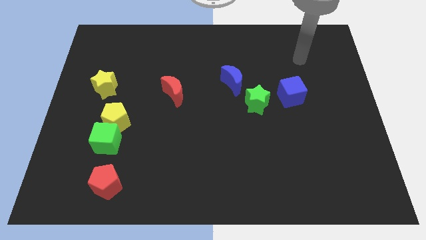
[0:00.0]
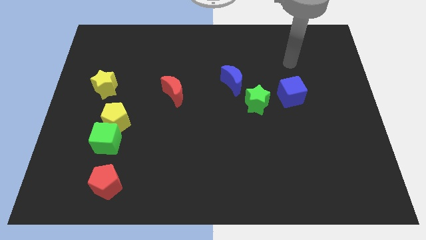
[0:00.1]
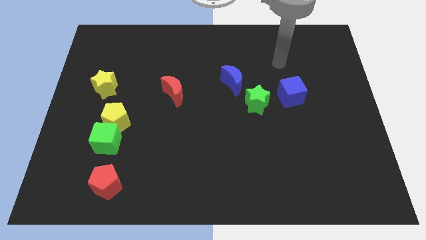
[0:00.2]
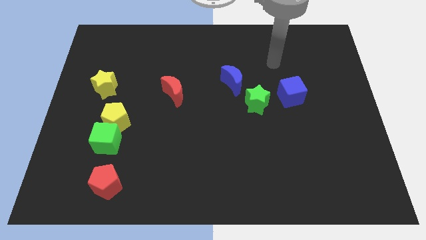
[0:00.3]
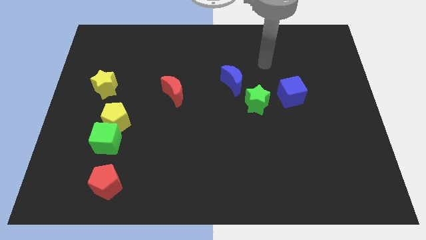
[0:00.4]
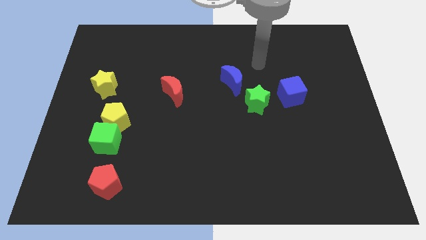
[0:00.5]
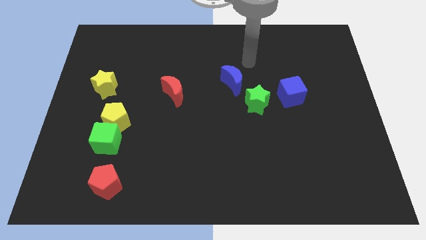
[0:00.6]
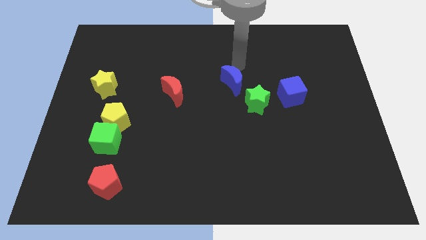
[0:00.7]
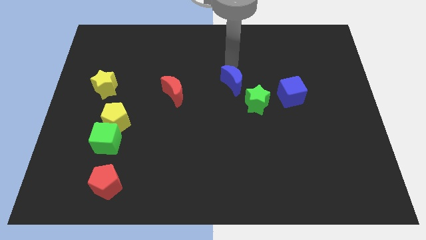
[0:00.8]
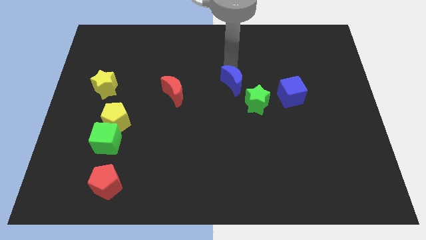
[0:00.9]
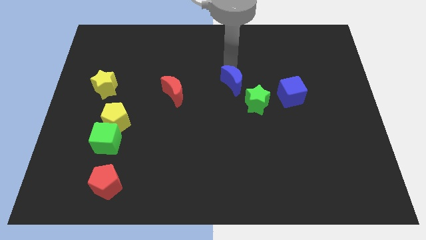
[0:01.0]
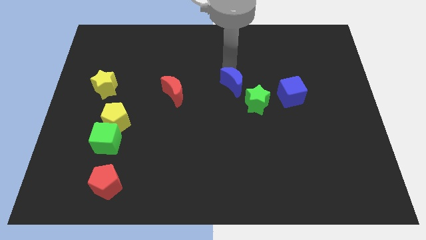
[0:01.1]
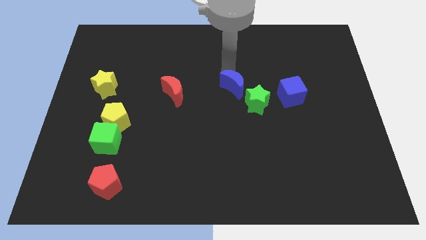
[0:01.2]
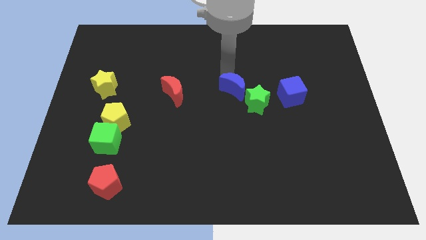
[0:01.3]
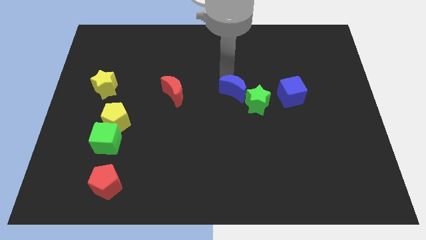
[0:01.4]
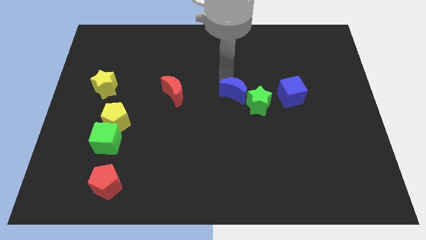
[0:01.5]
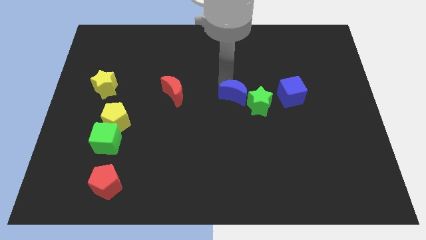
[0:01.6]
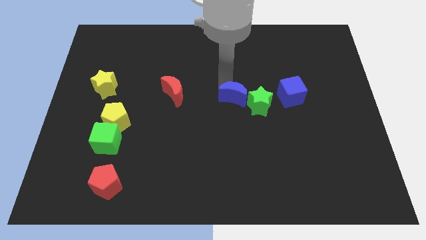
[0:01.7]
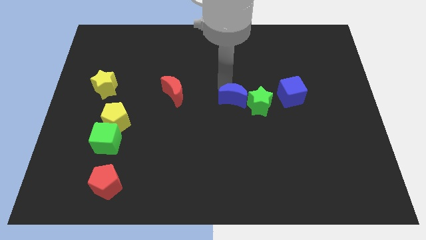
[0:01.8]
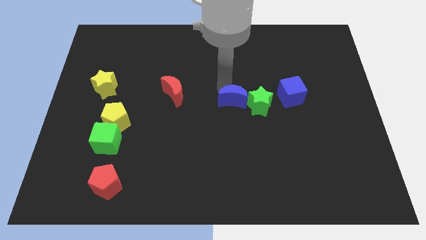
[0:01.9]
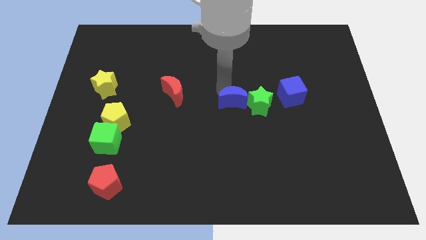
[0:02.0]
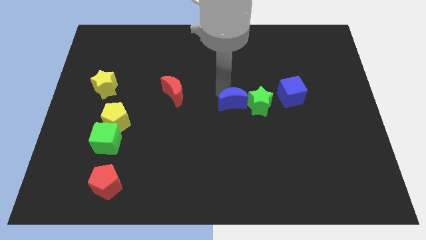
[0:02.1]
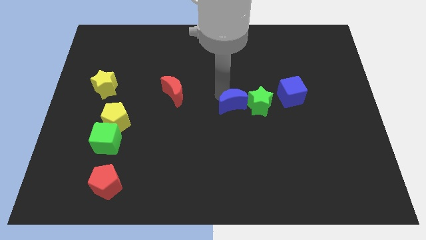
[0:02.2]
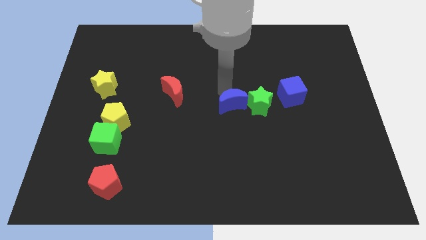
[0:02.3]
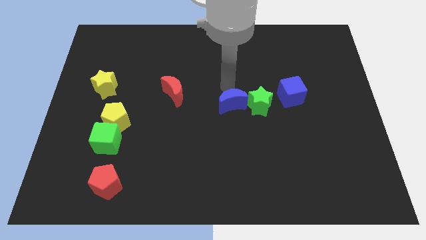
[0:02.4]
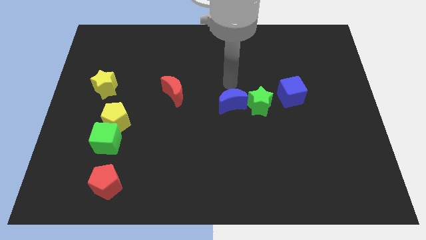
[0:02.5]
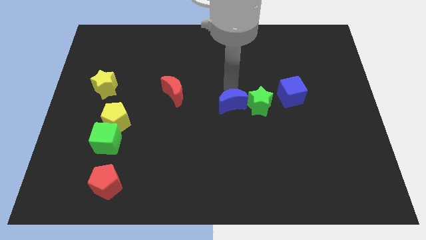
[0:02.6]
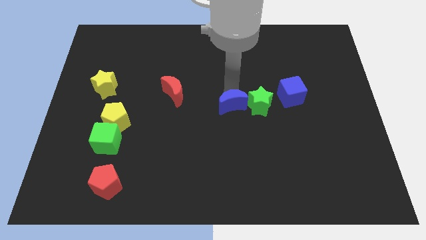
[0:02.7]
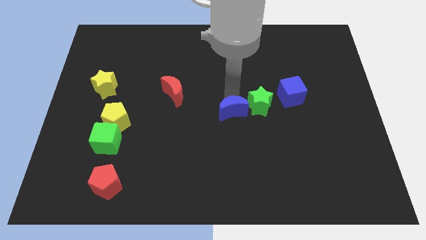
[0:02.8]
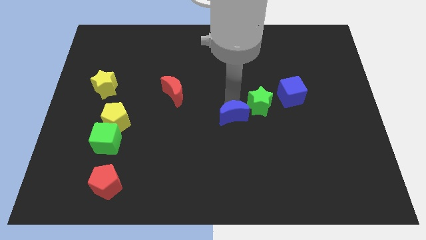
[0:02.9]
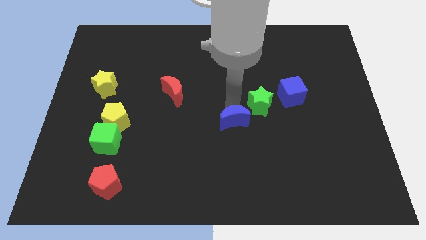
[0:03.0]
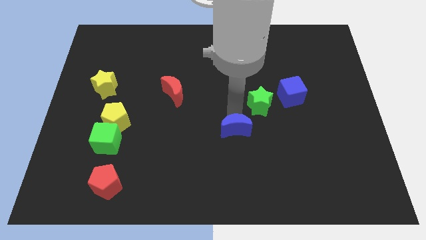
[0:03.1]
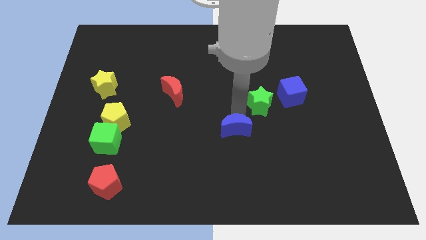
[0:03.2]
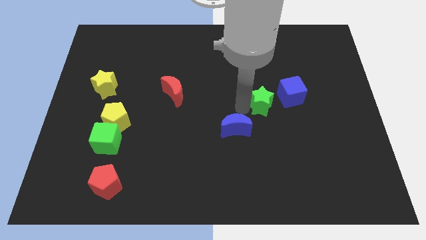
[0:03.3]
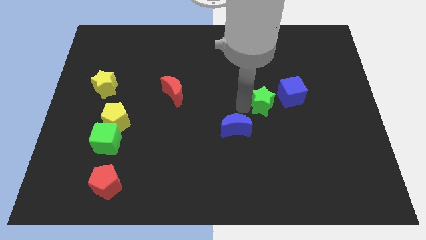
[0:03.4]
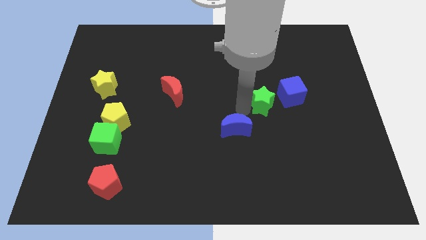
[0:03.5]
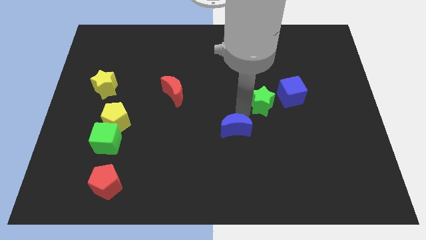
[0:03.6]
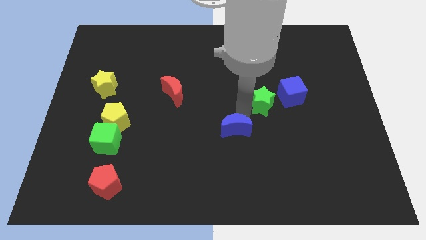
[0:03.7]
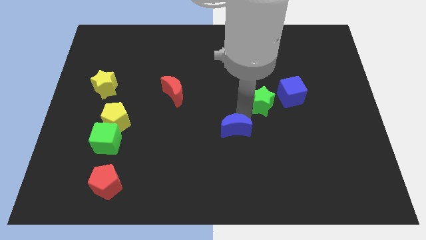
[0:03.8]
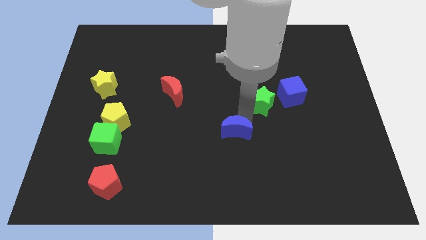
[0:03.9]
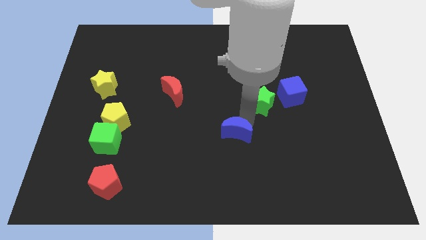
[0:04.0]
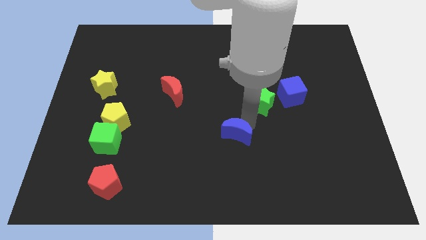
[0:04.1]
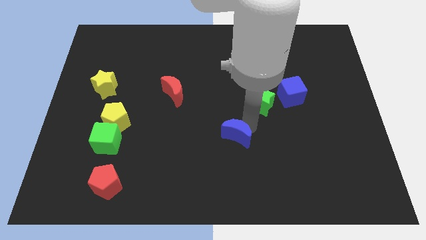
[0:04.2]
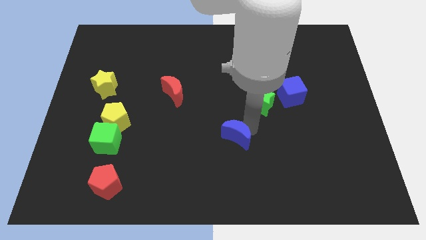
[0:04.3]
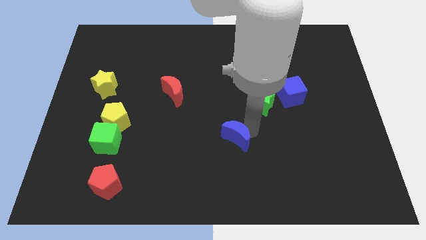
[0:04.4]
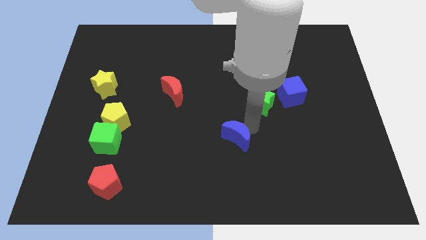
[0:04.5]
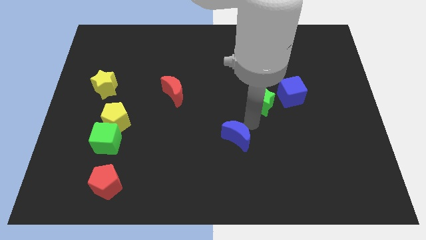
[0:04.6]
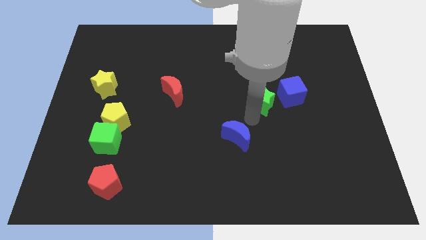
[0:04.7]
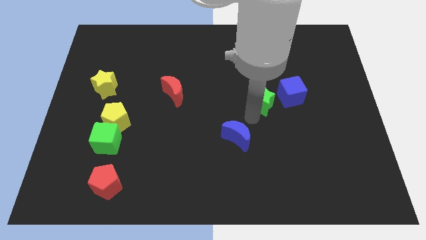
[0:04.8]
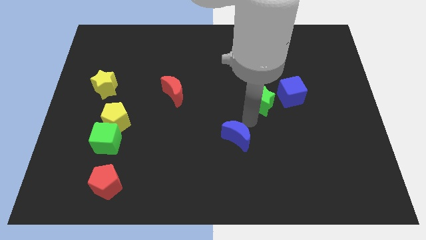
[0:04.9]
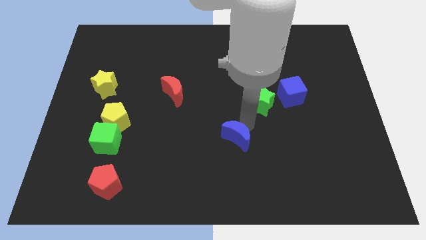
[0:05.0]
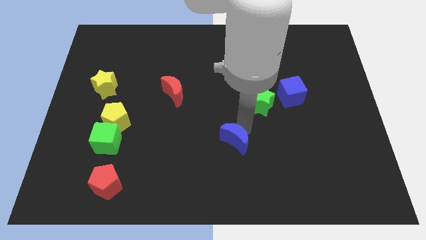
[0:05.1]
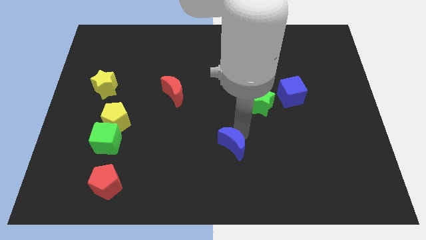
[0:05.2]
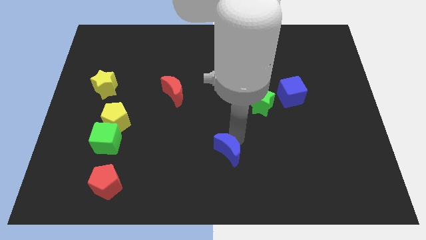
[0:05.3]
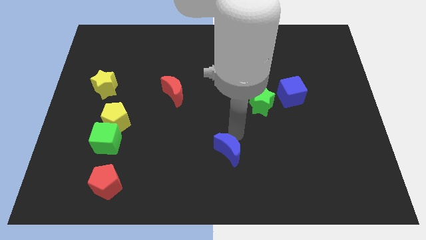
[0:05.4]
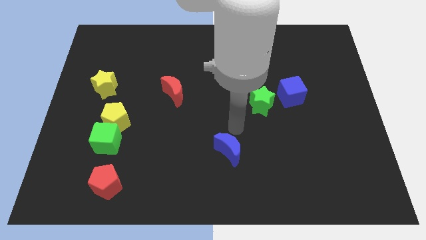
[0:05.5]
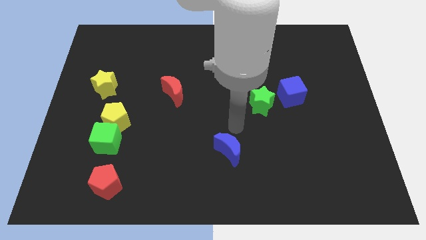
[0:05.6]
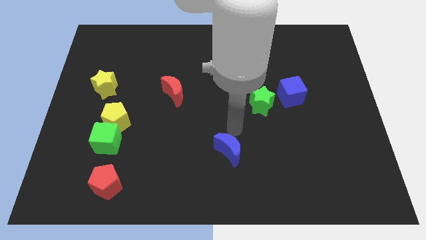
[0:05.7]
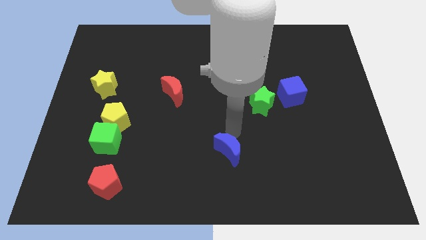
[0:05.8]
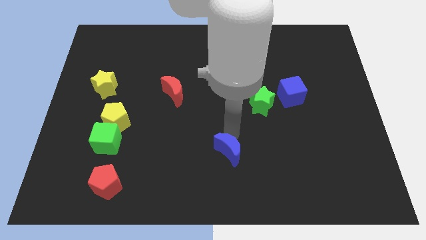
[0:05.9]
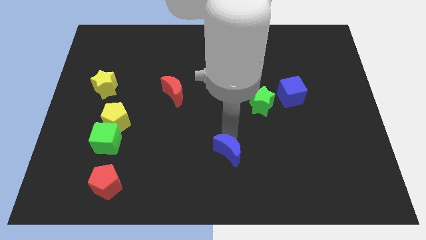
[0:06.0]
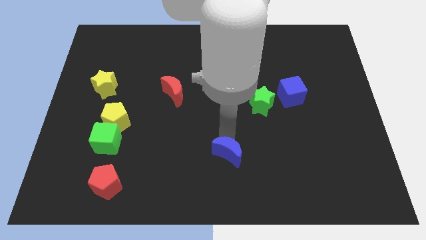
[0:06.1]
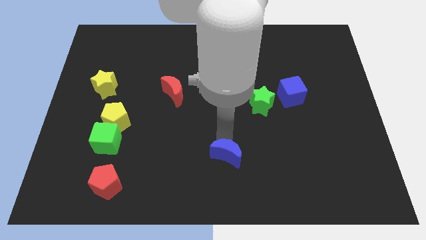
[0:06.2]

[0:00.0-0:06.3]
put the blue moon to the bottom side

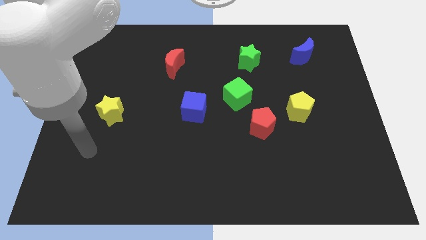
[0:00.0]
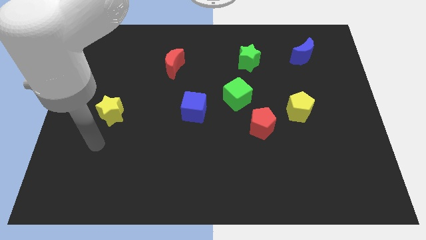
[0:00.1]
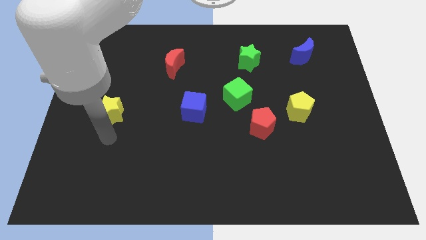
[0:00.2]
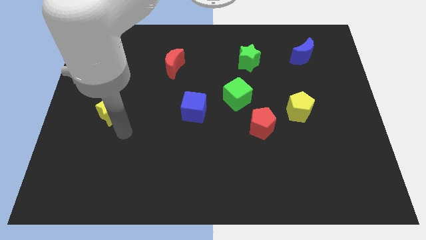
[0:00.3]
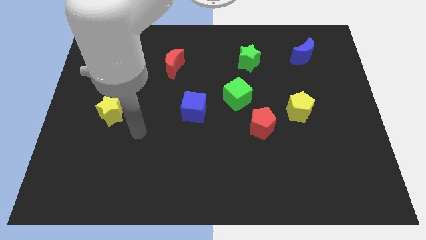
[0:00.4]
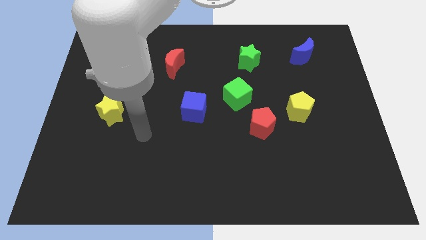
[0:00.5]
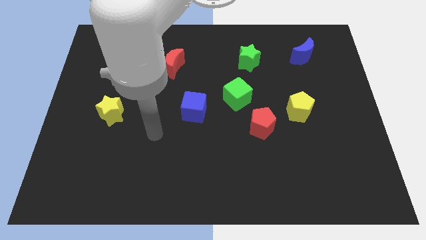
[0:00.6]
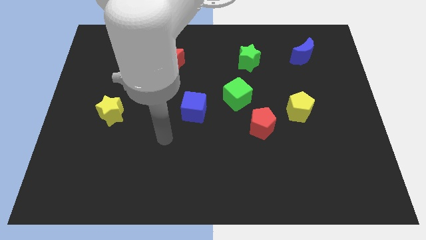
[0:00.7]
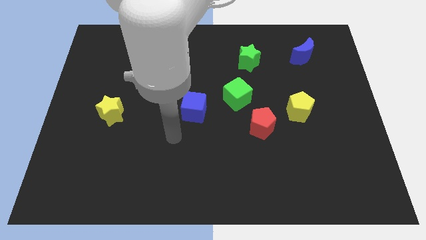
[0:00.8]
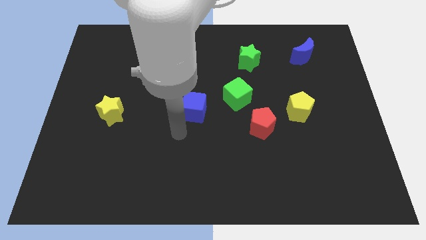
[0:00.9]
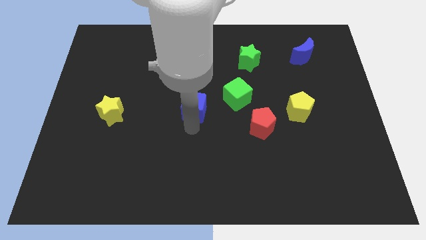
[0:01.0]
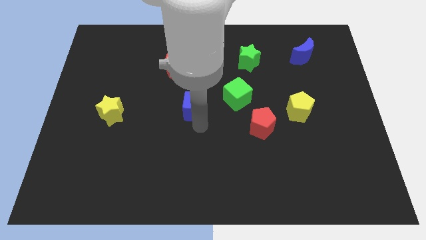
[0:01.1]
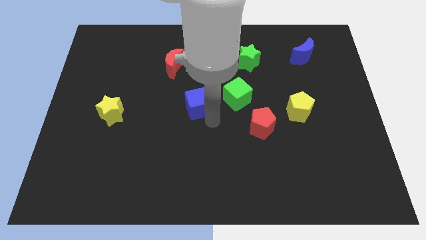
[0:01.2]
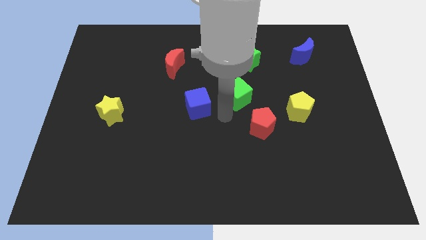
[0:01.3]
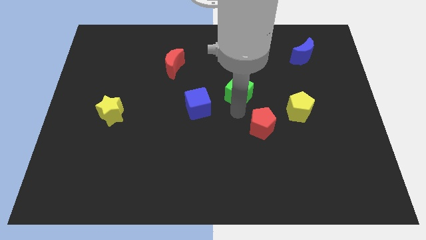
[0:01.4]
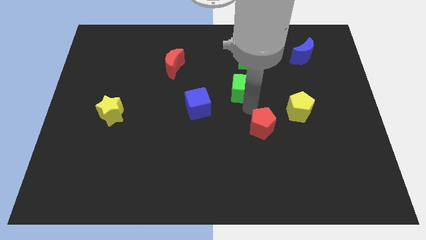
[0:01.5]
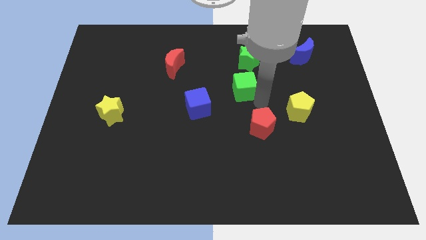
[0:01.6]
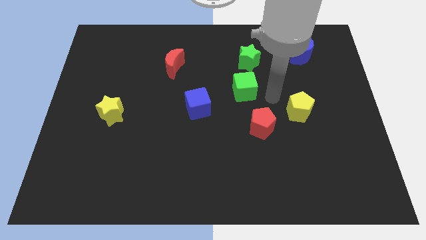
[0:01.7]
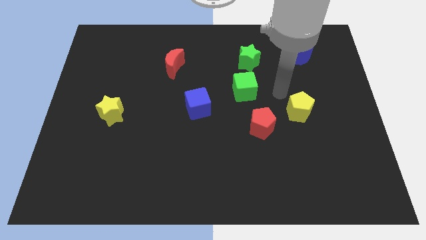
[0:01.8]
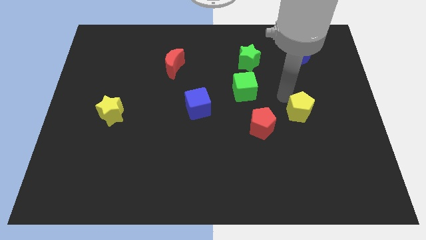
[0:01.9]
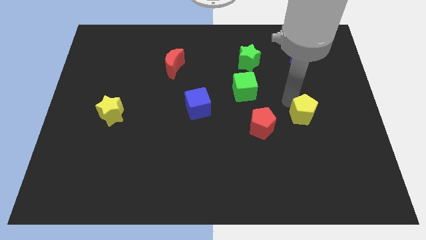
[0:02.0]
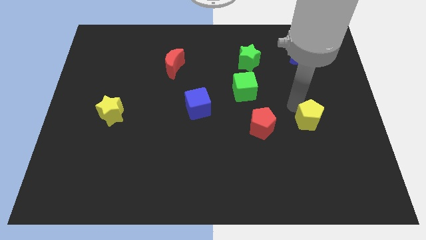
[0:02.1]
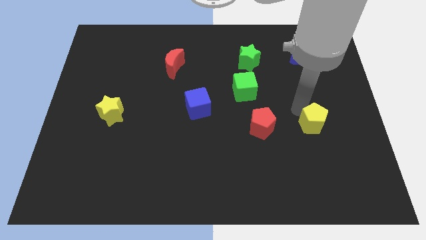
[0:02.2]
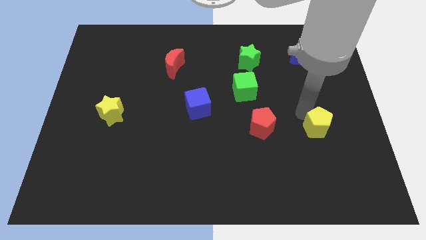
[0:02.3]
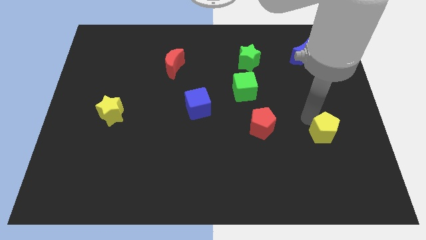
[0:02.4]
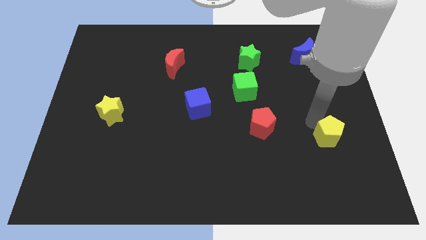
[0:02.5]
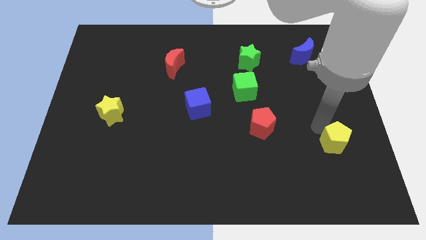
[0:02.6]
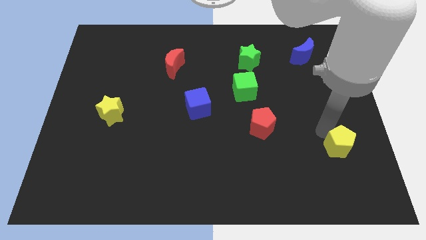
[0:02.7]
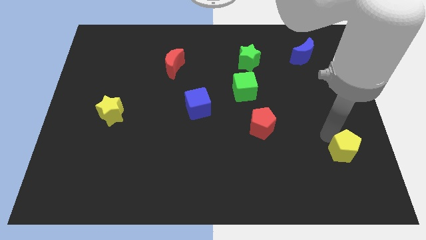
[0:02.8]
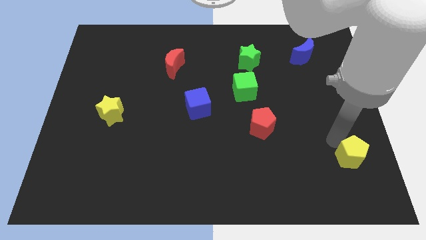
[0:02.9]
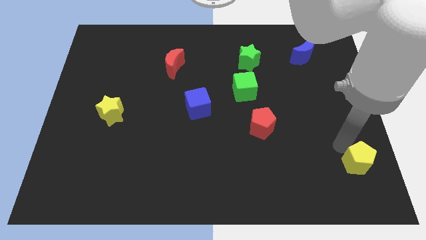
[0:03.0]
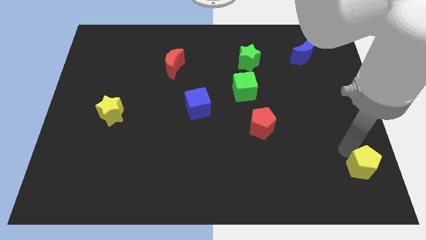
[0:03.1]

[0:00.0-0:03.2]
put the yellow pentagon to the bottom right corner
